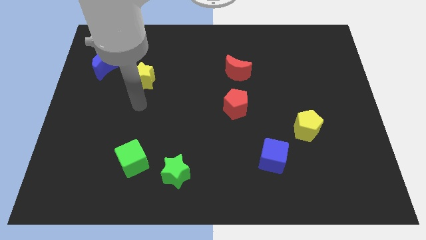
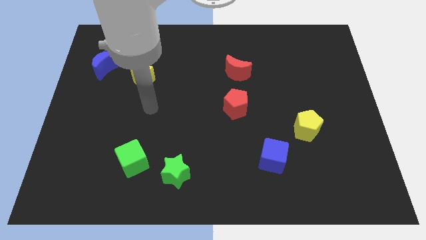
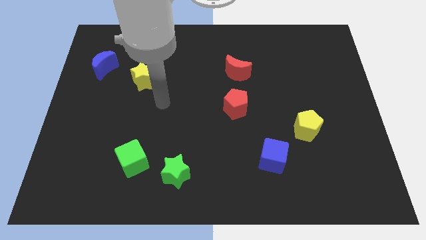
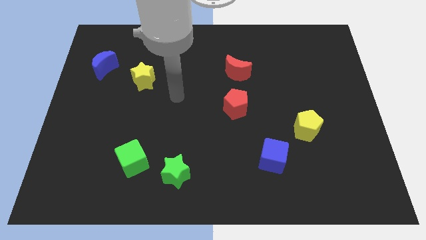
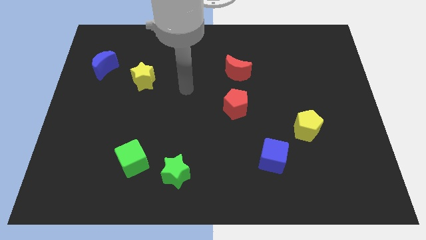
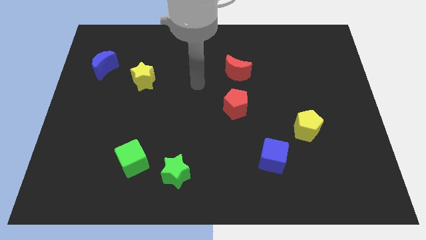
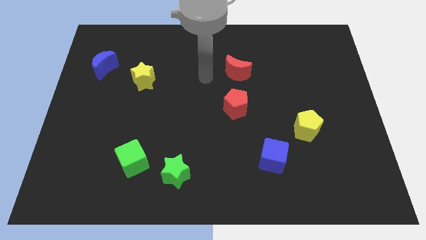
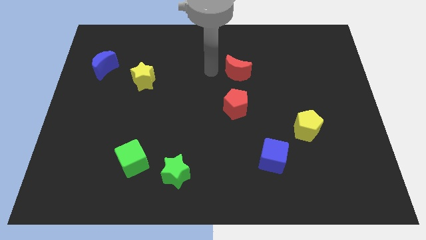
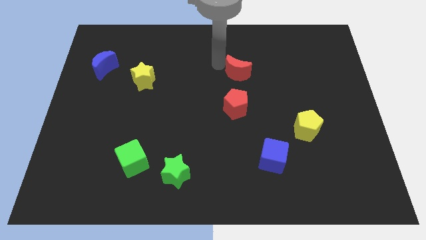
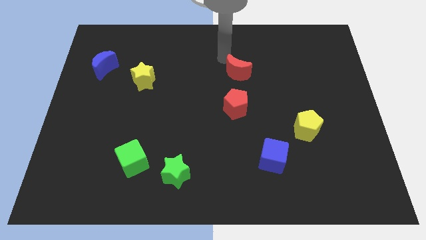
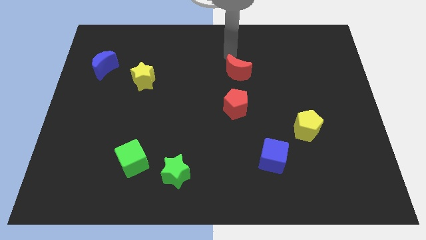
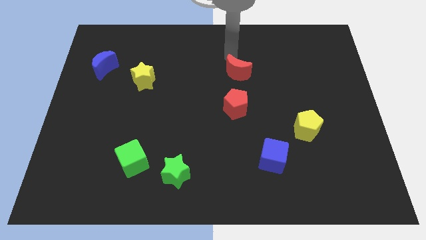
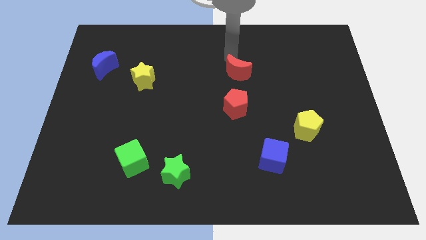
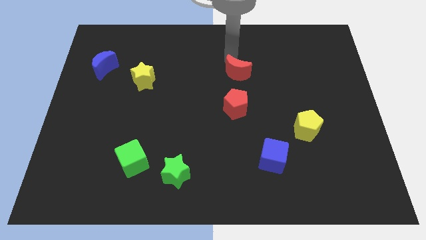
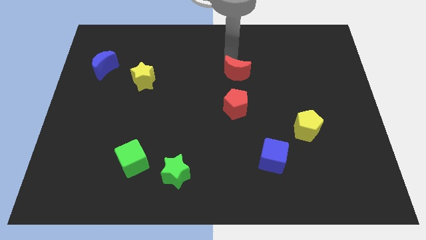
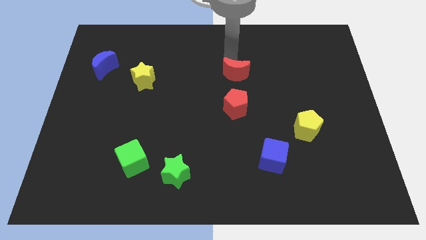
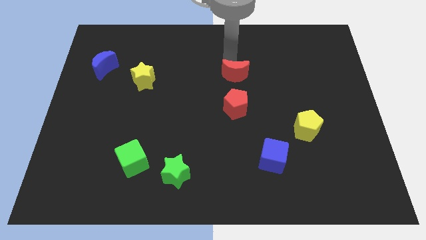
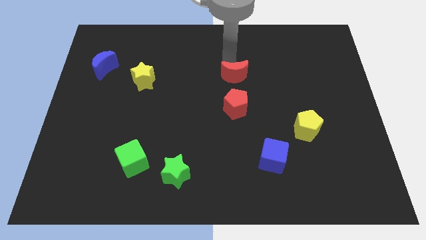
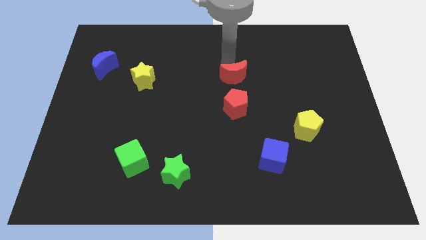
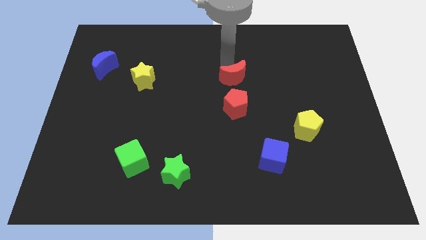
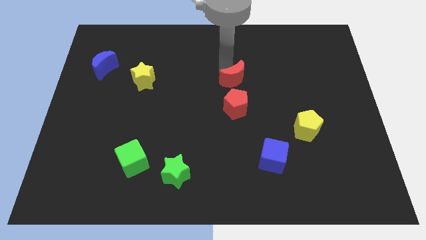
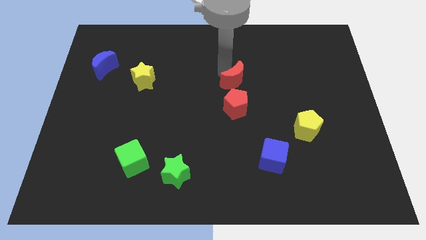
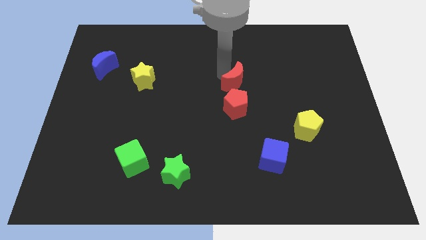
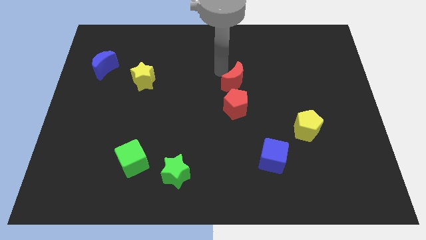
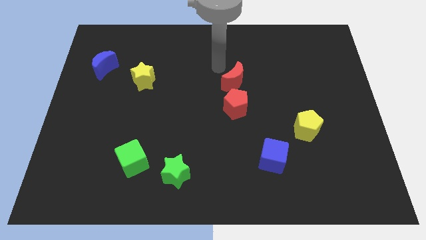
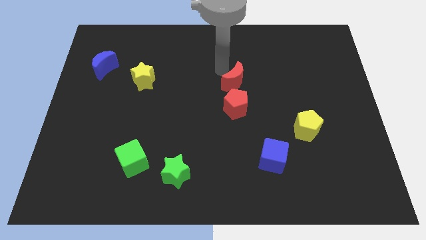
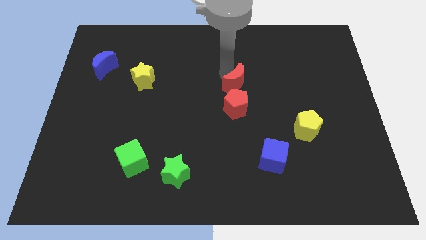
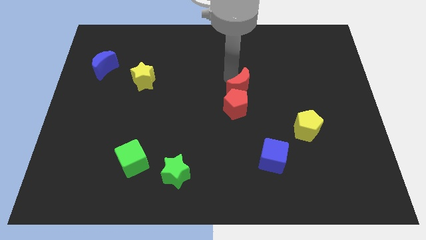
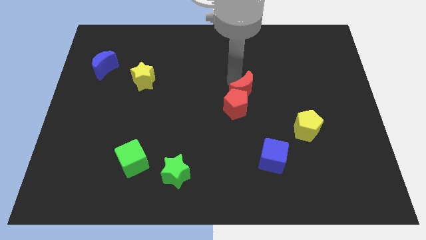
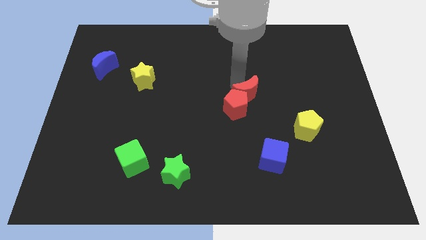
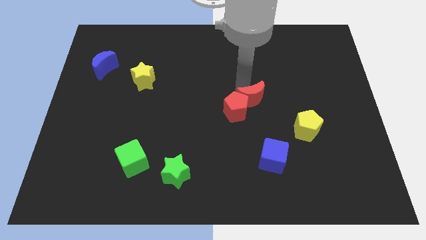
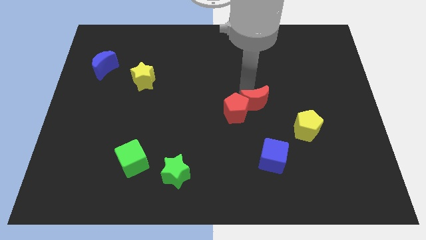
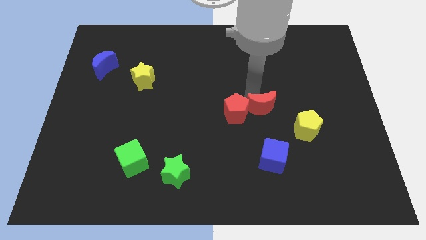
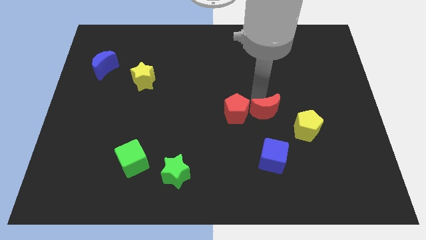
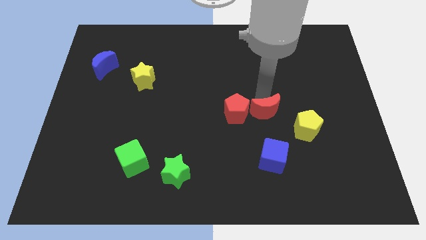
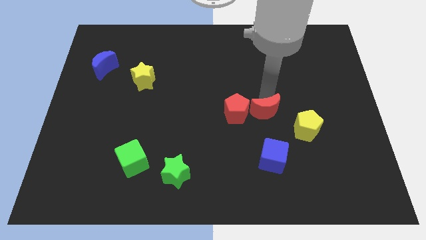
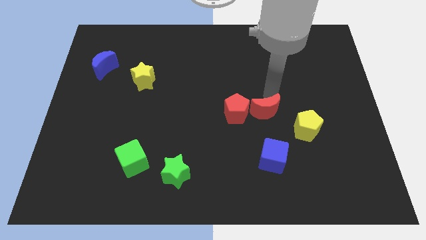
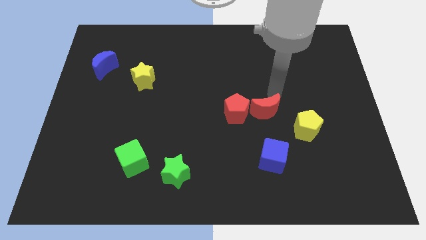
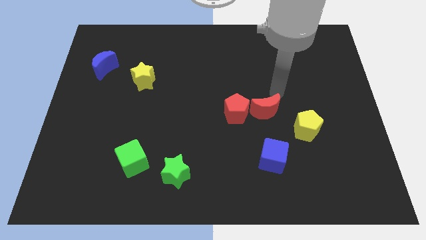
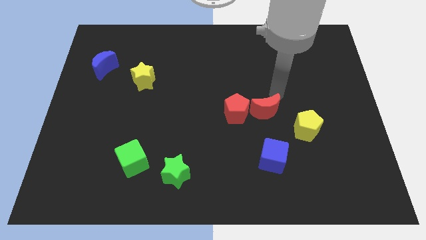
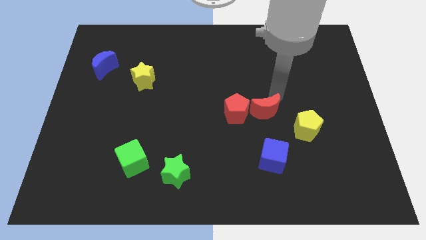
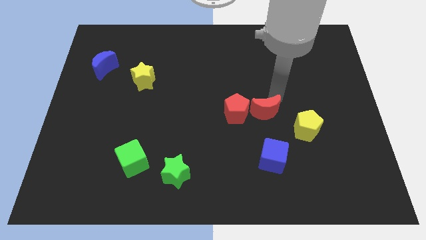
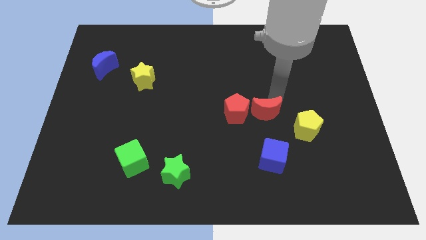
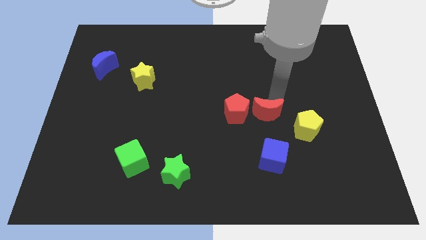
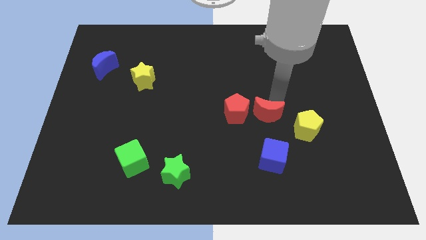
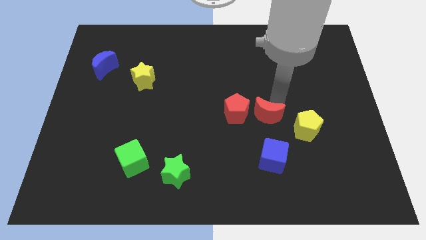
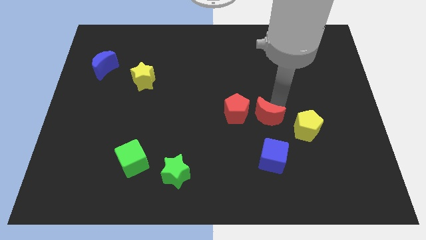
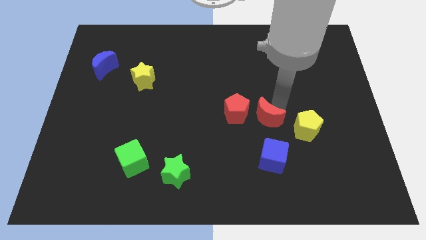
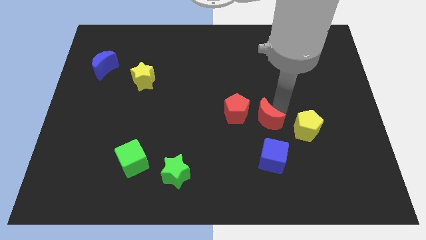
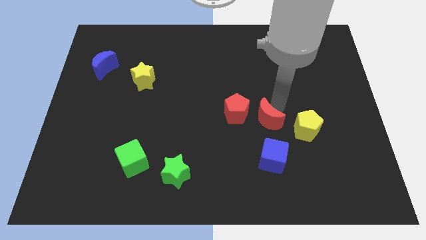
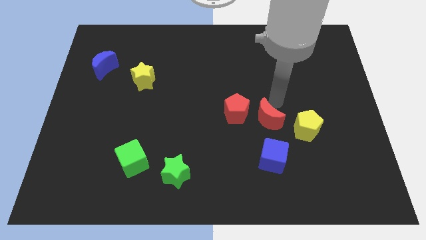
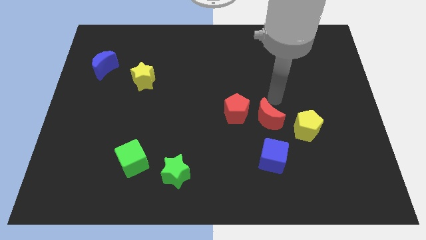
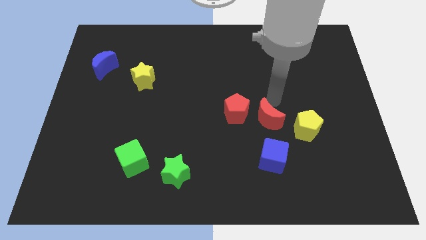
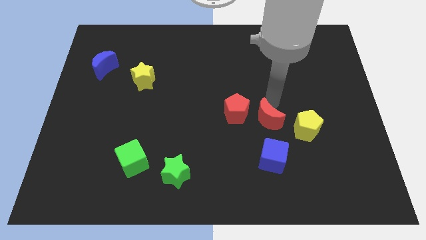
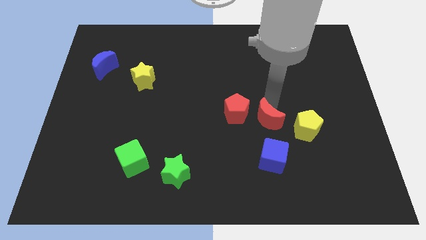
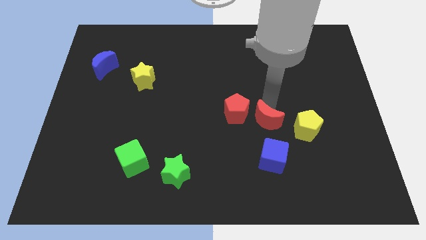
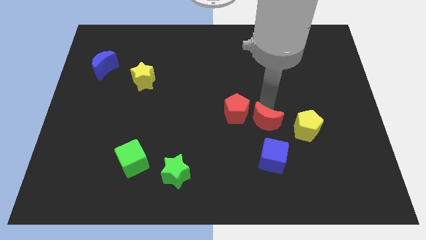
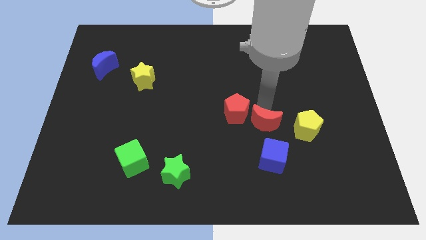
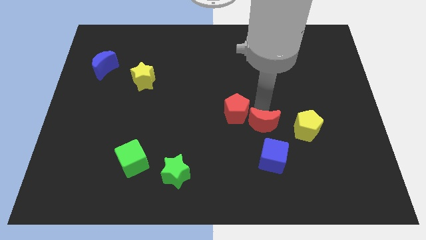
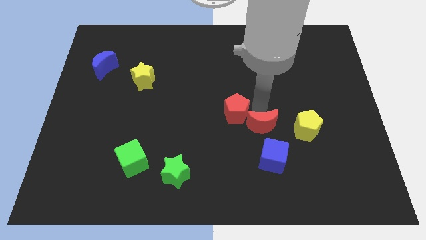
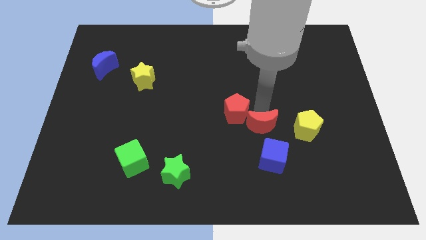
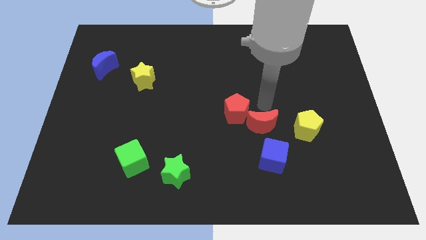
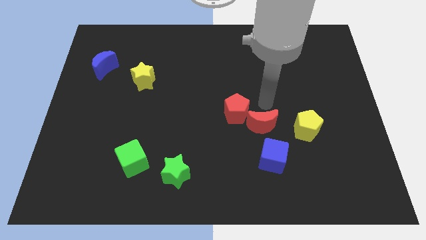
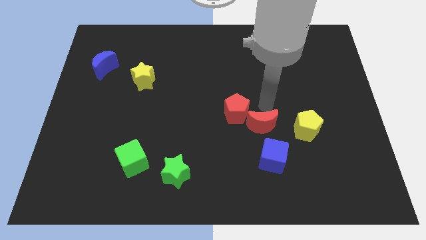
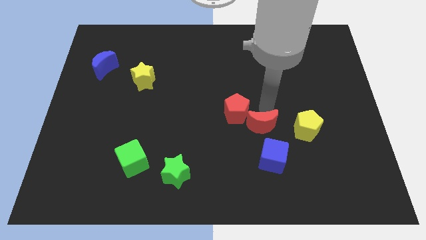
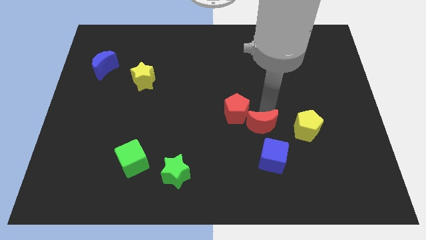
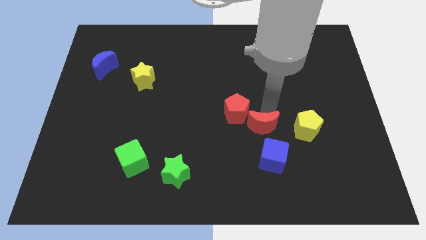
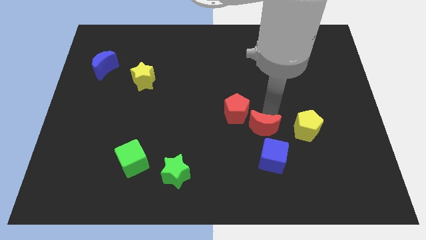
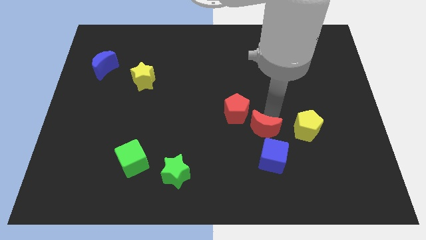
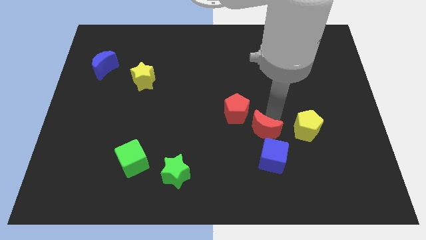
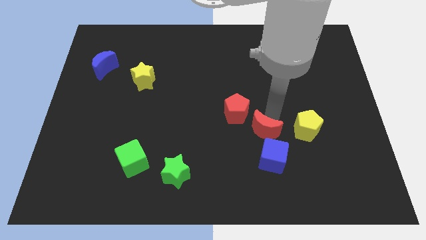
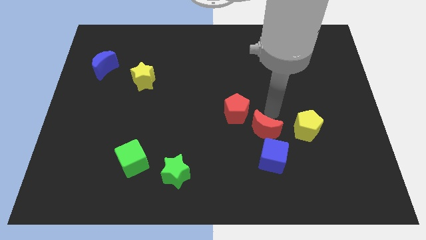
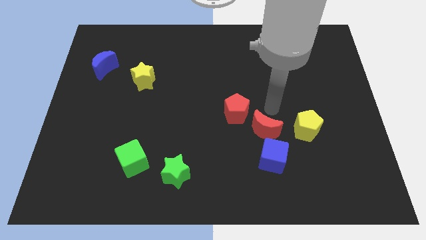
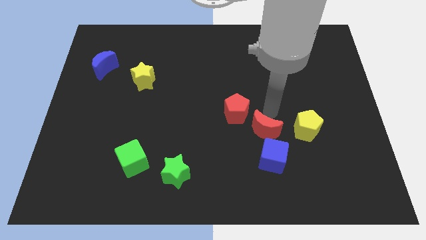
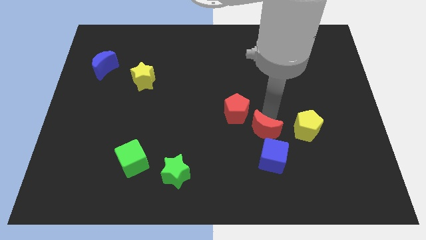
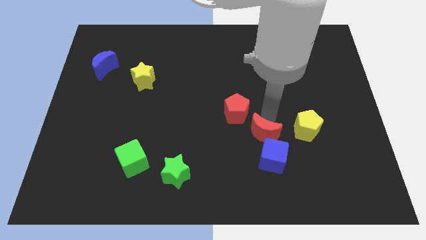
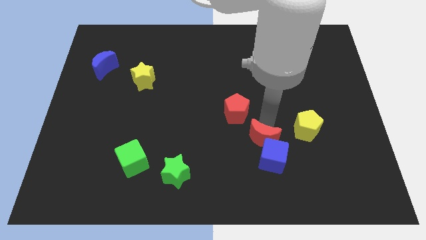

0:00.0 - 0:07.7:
put the red moon close to the blue cube
